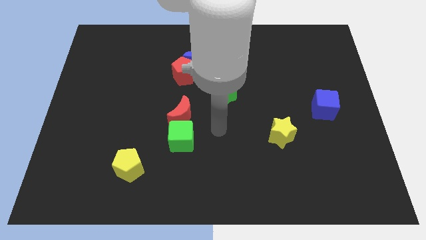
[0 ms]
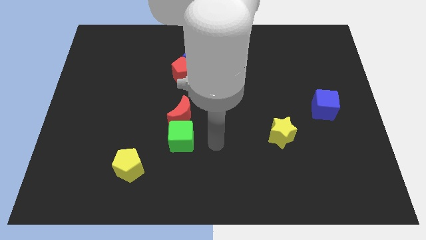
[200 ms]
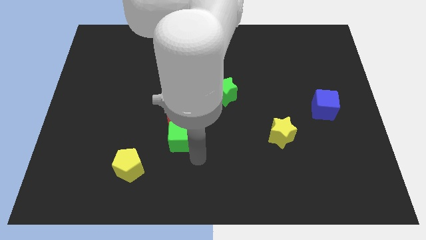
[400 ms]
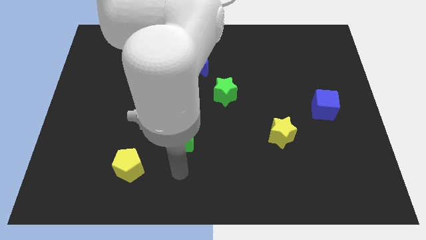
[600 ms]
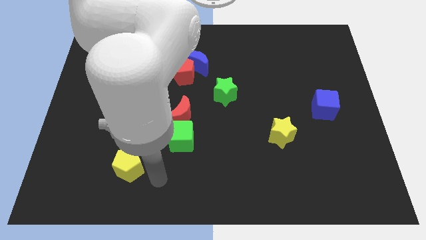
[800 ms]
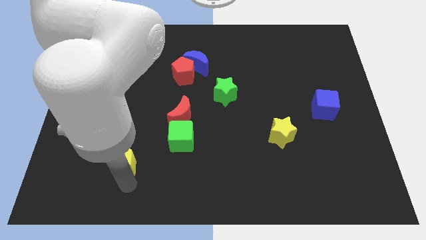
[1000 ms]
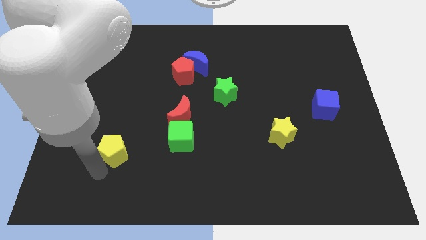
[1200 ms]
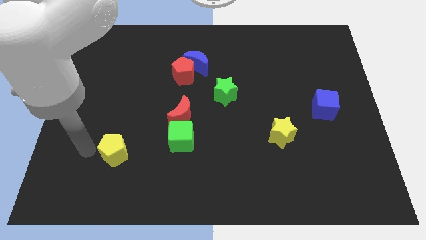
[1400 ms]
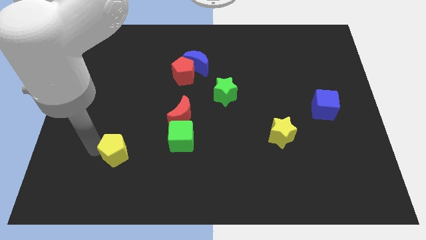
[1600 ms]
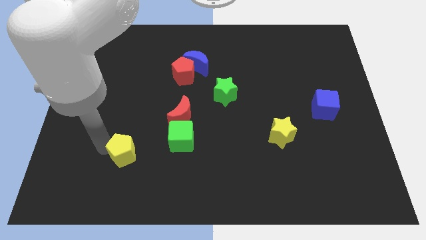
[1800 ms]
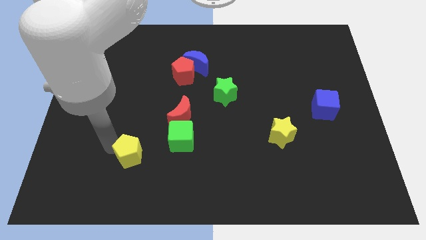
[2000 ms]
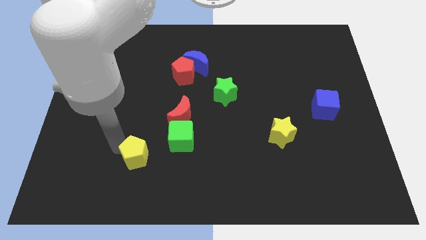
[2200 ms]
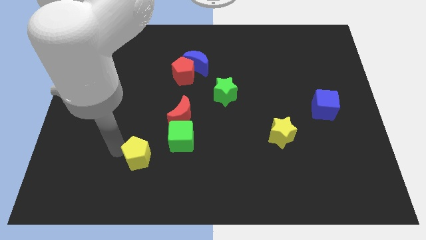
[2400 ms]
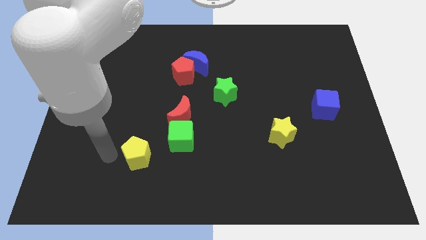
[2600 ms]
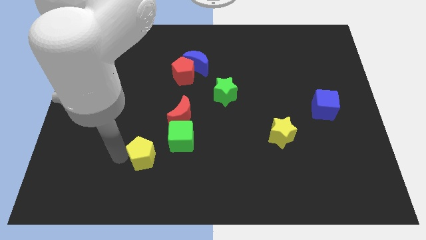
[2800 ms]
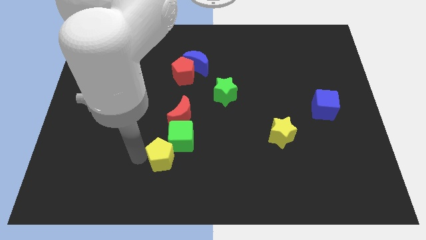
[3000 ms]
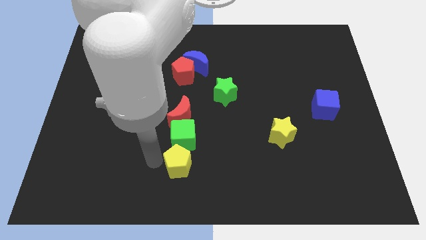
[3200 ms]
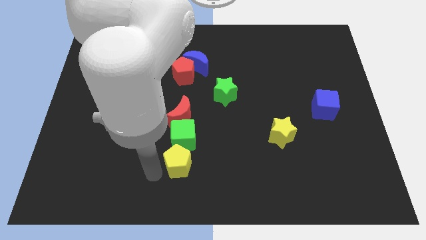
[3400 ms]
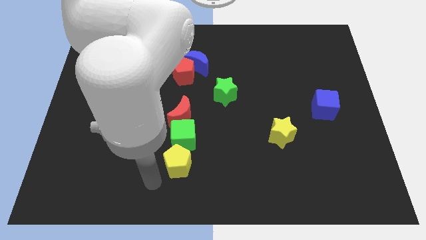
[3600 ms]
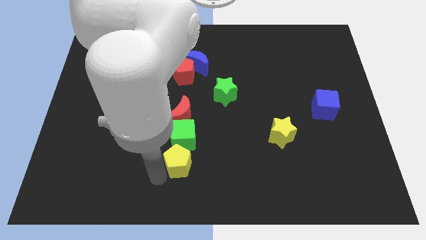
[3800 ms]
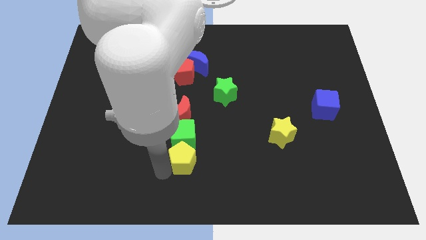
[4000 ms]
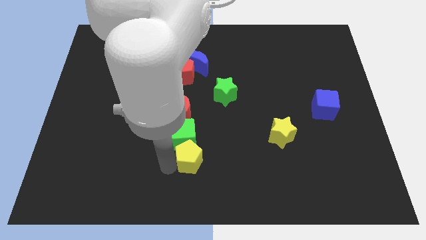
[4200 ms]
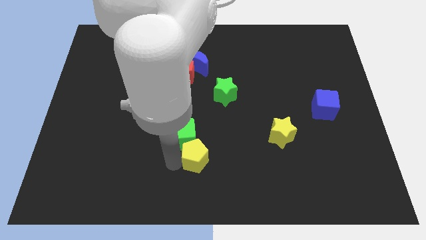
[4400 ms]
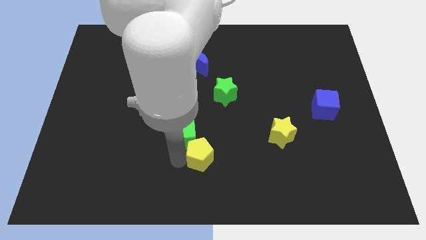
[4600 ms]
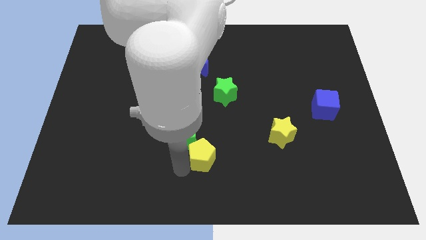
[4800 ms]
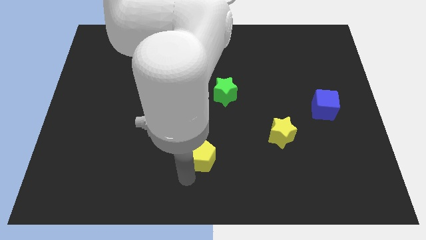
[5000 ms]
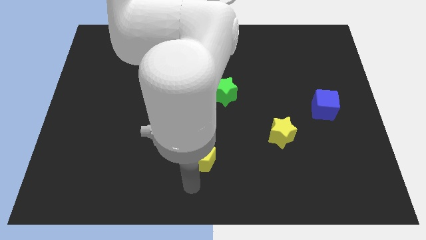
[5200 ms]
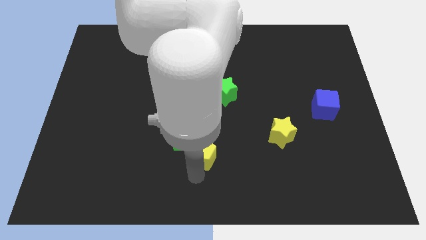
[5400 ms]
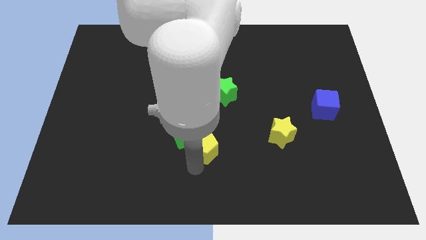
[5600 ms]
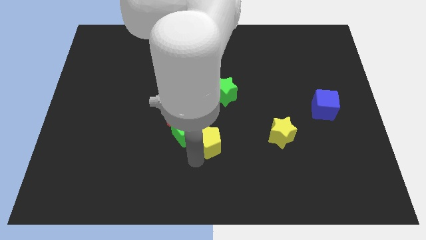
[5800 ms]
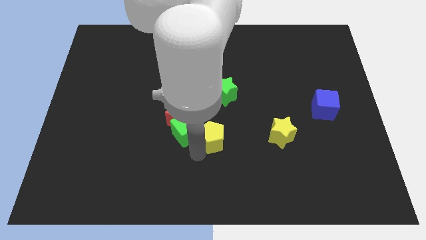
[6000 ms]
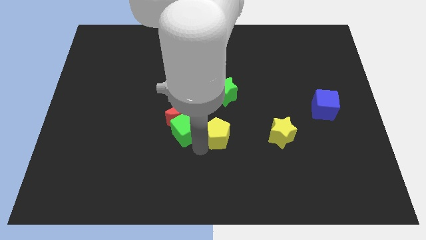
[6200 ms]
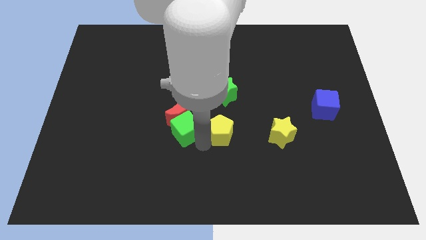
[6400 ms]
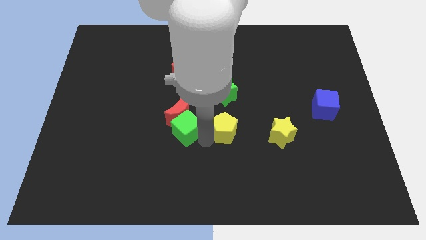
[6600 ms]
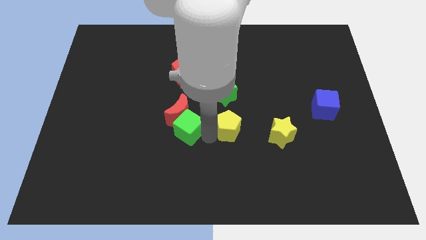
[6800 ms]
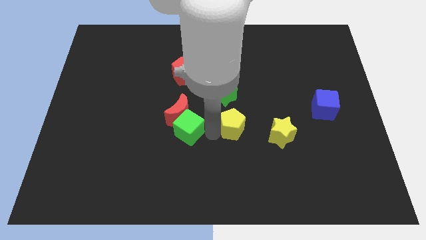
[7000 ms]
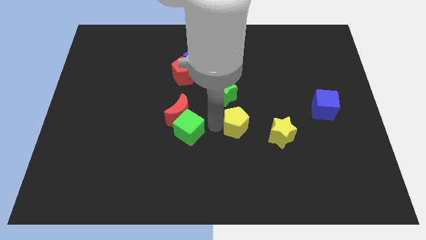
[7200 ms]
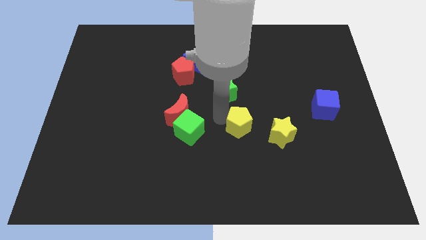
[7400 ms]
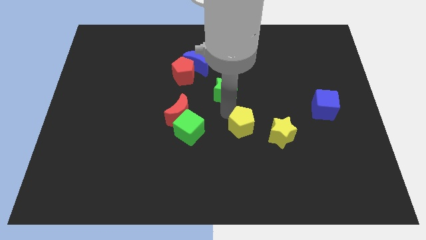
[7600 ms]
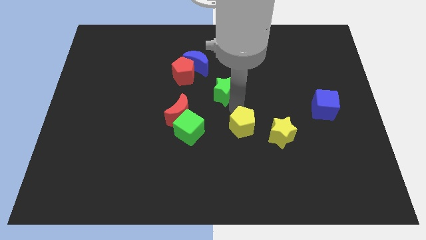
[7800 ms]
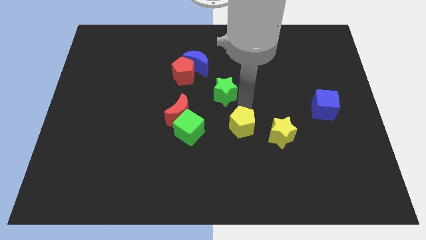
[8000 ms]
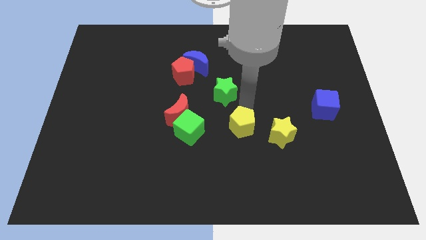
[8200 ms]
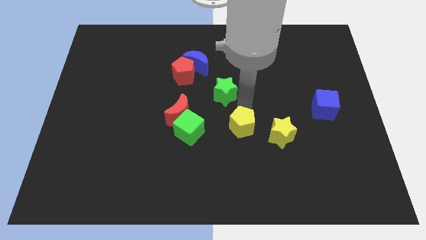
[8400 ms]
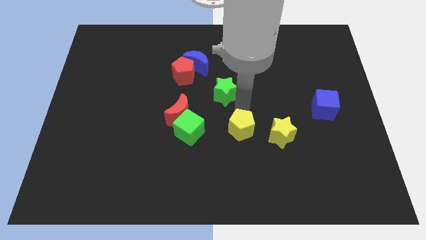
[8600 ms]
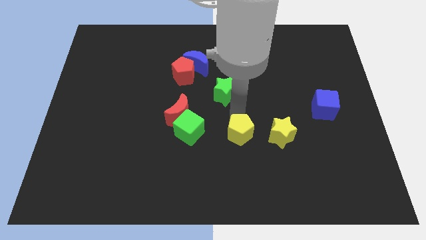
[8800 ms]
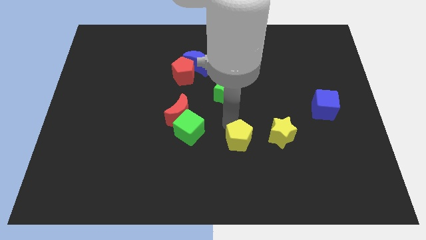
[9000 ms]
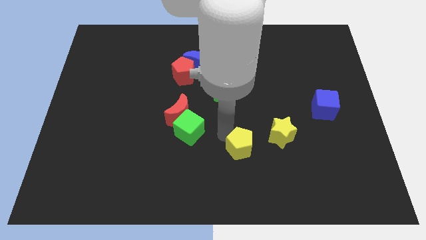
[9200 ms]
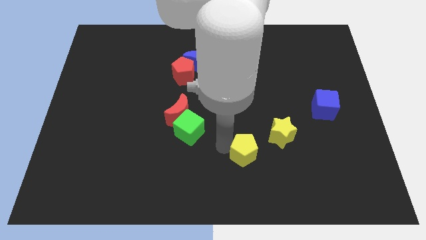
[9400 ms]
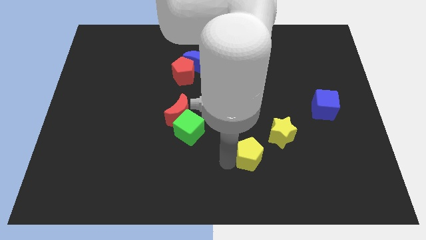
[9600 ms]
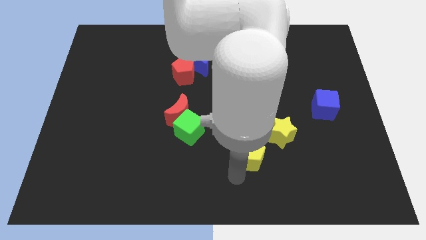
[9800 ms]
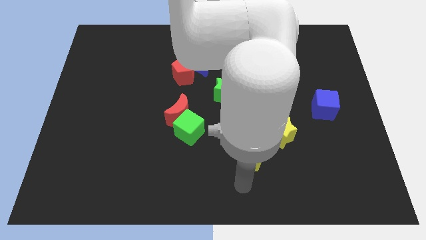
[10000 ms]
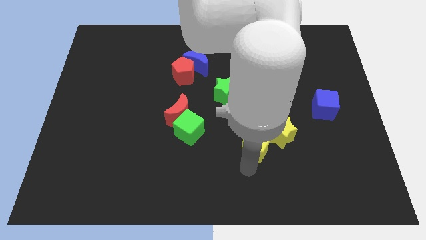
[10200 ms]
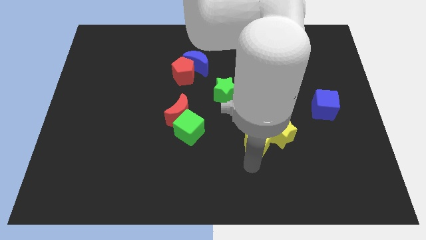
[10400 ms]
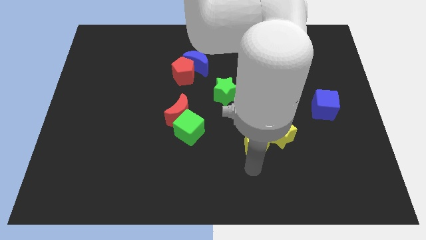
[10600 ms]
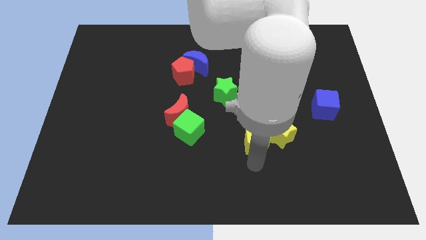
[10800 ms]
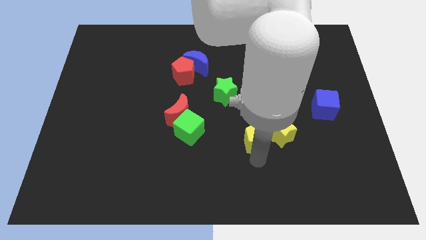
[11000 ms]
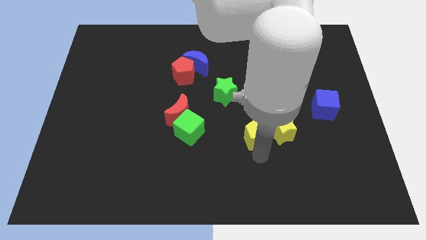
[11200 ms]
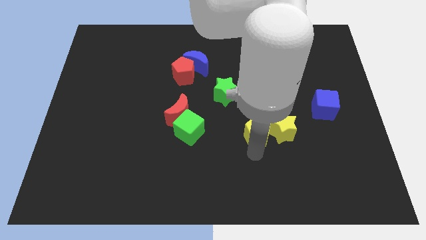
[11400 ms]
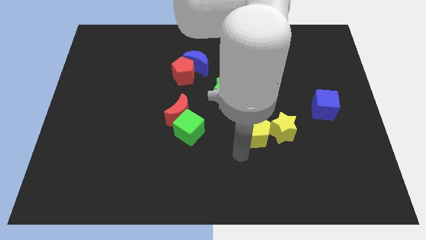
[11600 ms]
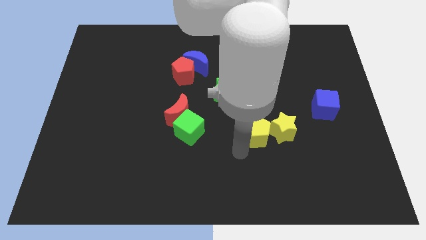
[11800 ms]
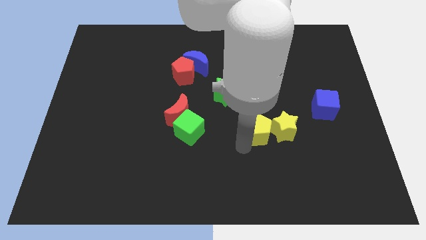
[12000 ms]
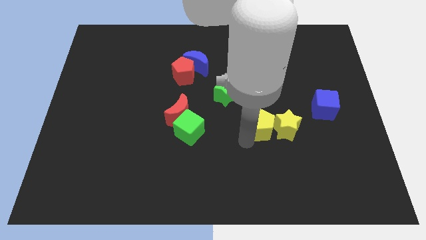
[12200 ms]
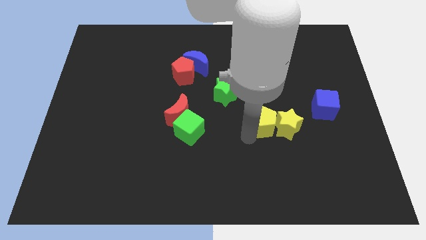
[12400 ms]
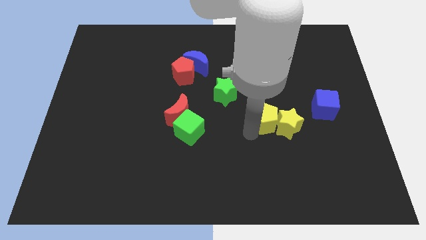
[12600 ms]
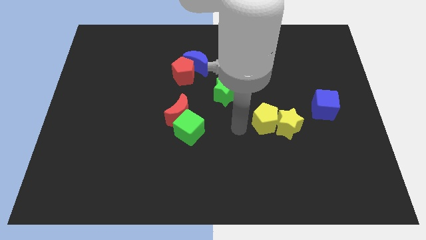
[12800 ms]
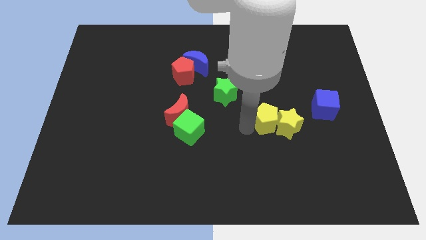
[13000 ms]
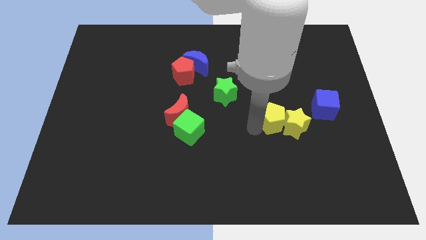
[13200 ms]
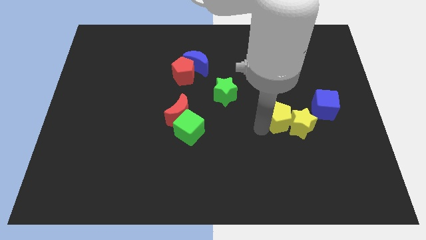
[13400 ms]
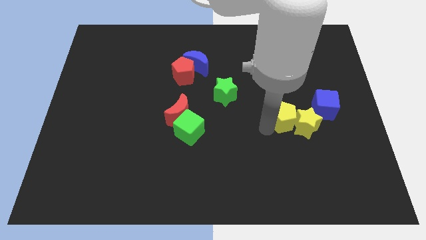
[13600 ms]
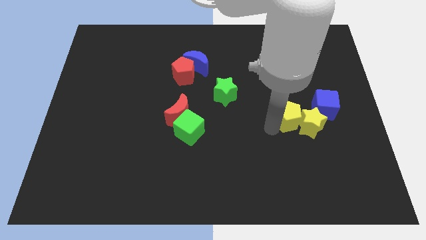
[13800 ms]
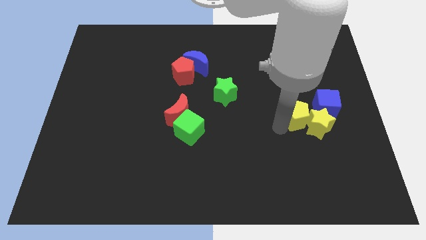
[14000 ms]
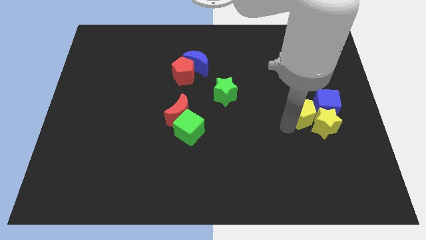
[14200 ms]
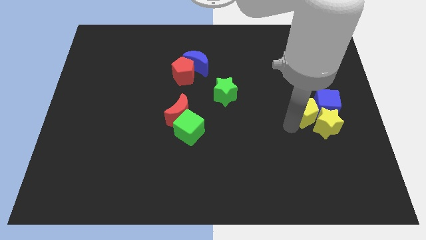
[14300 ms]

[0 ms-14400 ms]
put the yellow pentagon towards the blue cube
